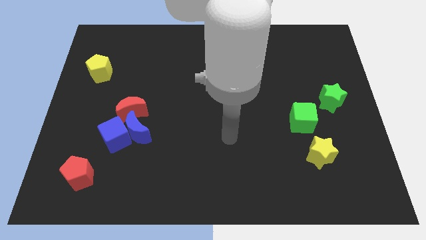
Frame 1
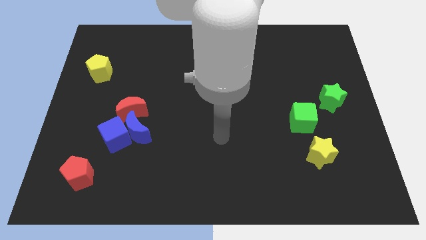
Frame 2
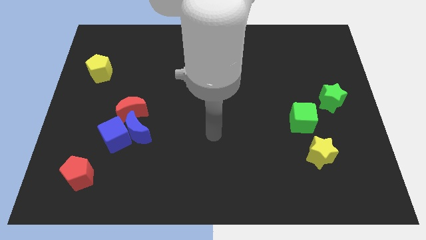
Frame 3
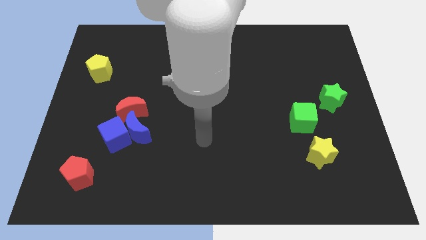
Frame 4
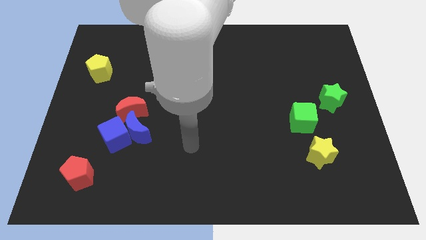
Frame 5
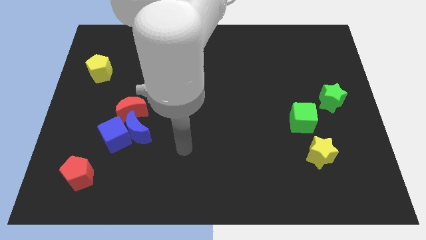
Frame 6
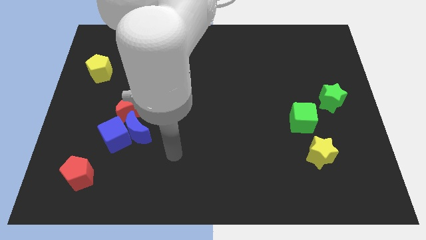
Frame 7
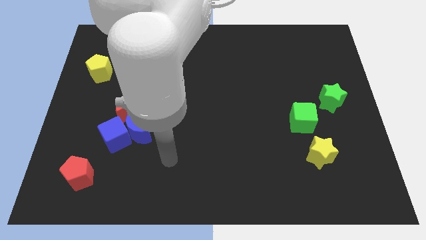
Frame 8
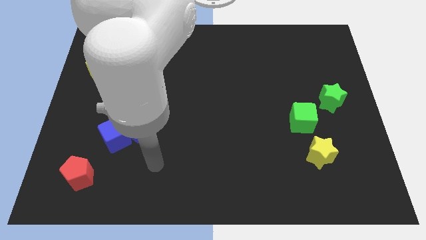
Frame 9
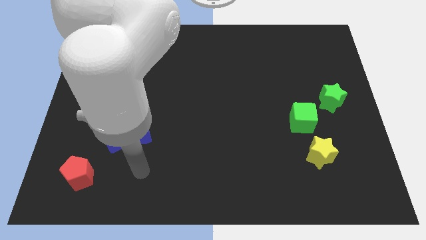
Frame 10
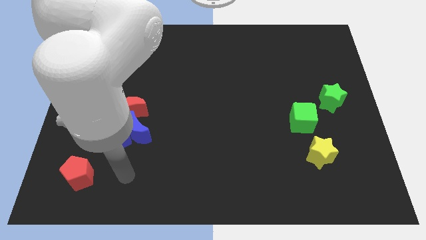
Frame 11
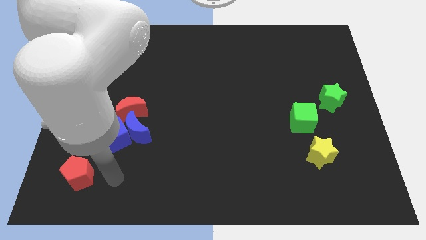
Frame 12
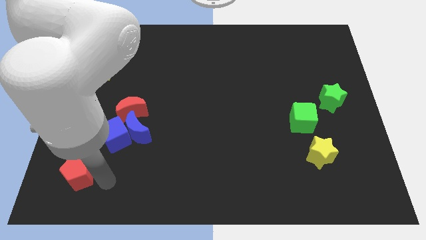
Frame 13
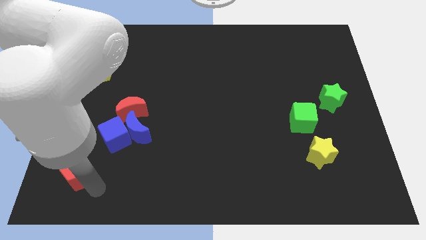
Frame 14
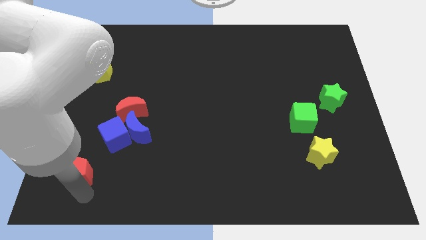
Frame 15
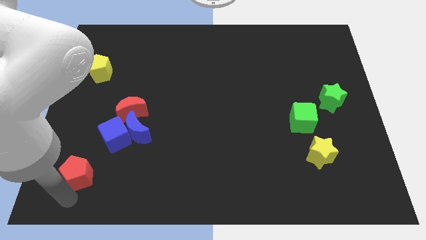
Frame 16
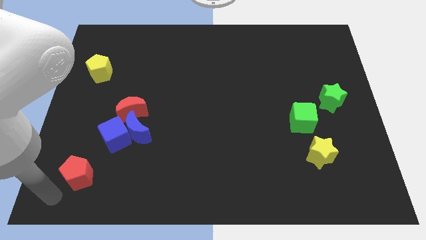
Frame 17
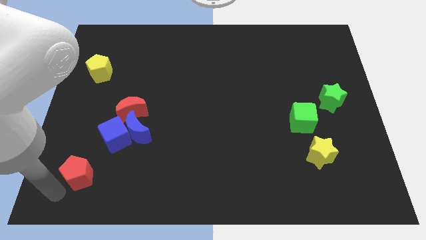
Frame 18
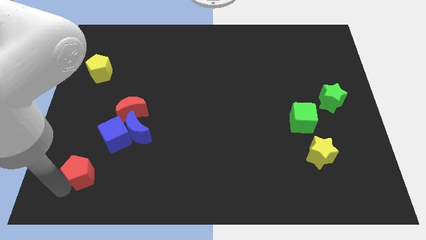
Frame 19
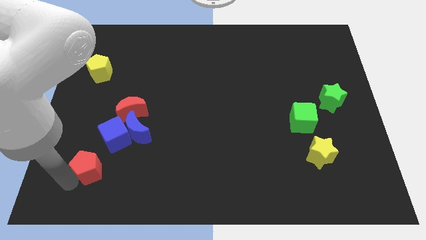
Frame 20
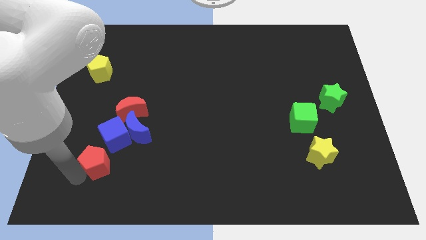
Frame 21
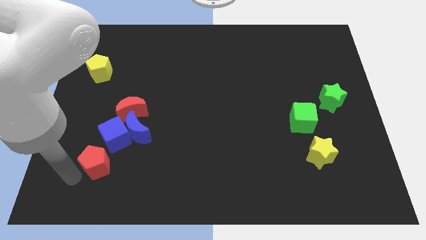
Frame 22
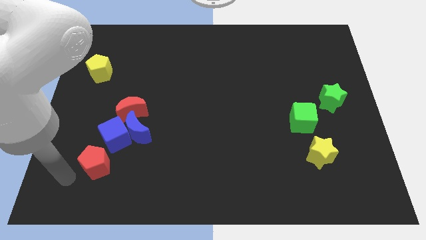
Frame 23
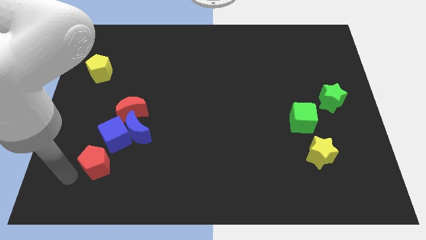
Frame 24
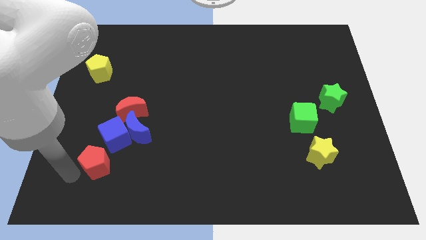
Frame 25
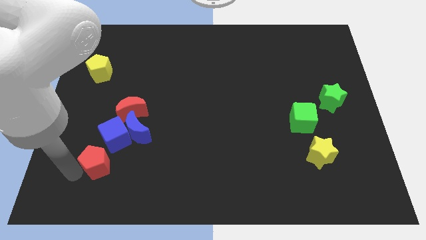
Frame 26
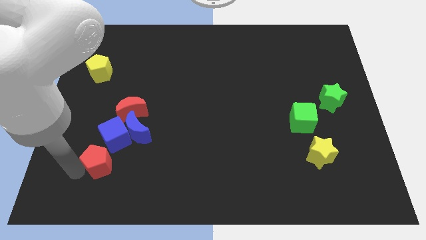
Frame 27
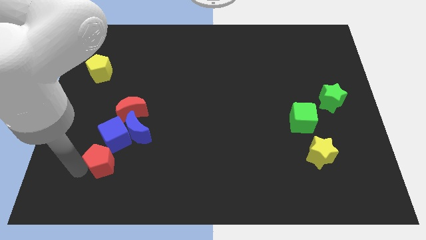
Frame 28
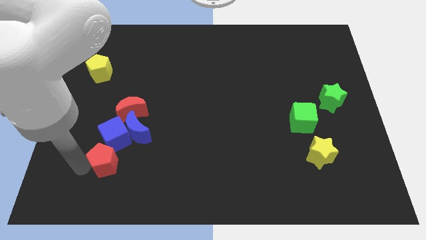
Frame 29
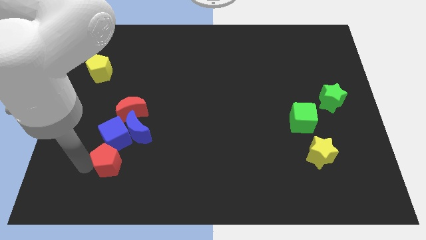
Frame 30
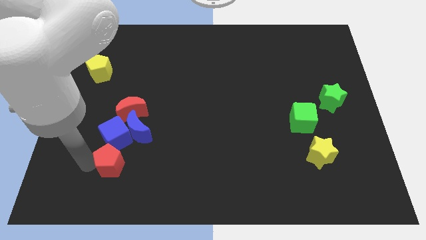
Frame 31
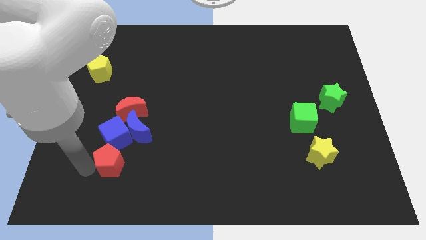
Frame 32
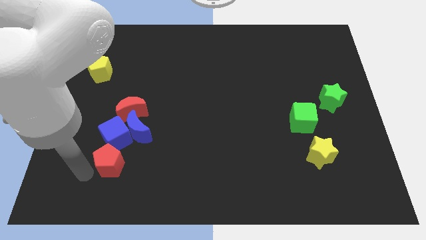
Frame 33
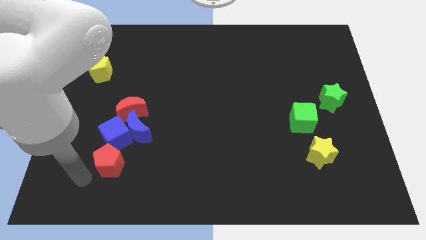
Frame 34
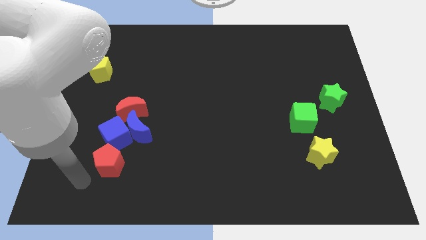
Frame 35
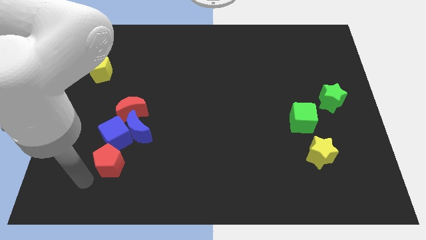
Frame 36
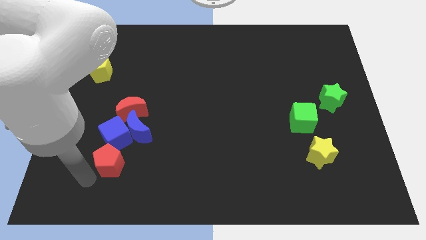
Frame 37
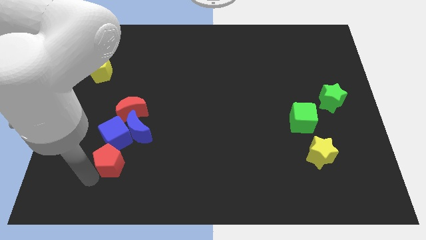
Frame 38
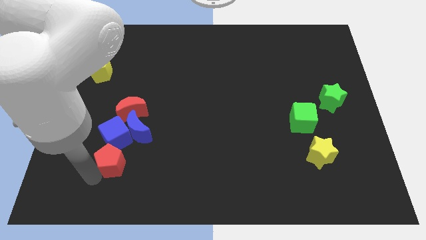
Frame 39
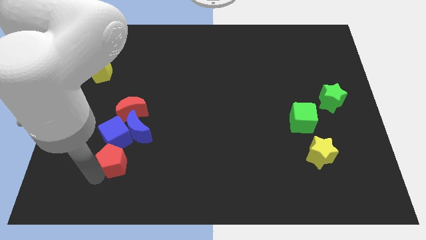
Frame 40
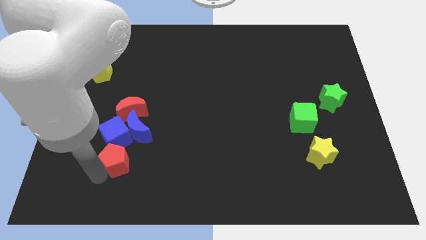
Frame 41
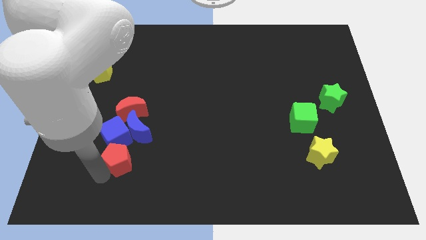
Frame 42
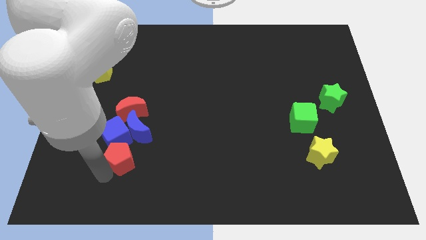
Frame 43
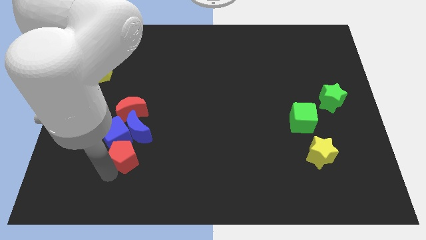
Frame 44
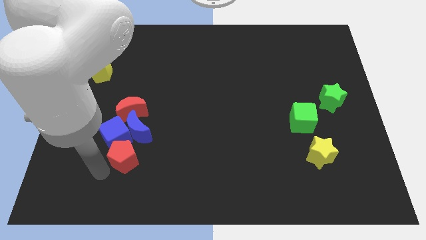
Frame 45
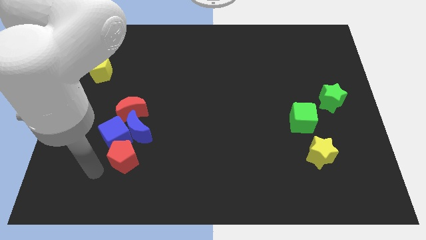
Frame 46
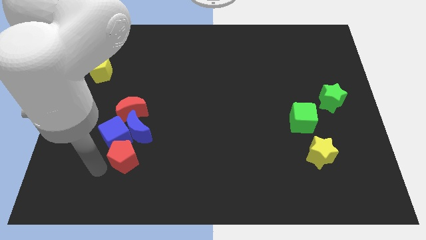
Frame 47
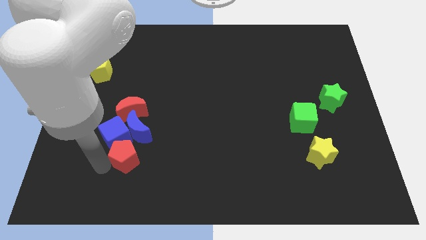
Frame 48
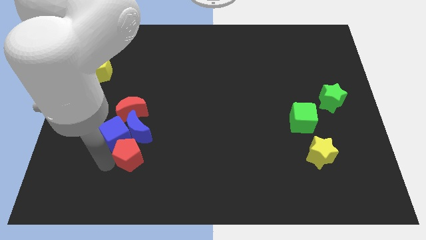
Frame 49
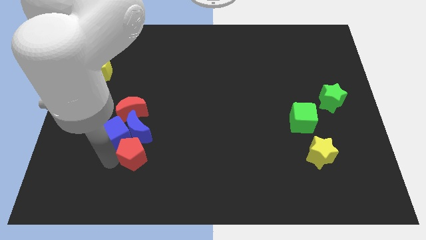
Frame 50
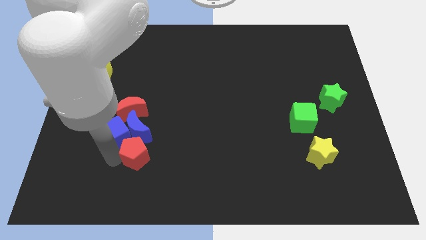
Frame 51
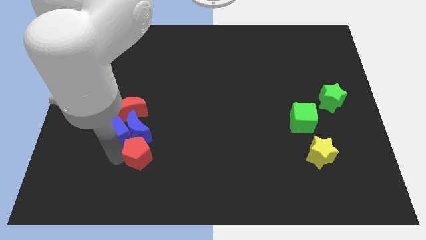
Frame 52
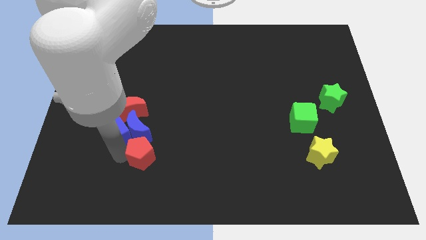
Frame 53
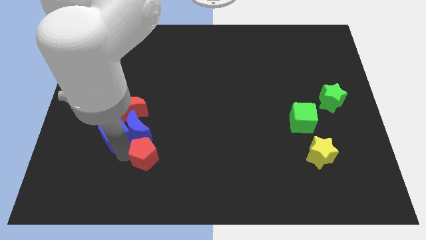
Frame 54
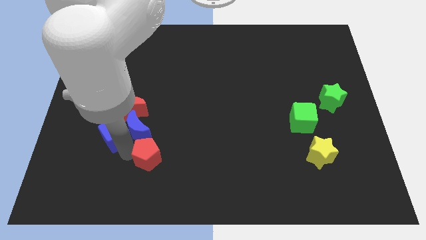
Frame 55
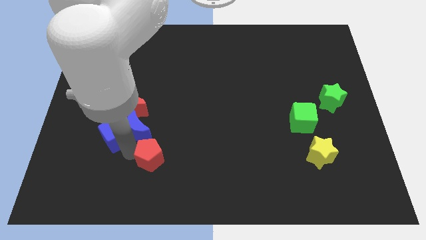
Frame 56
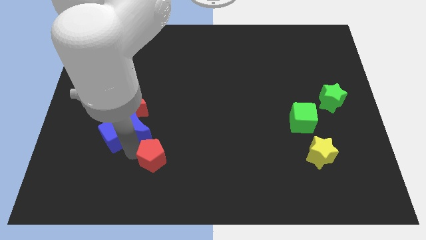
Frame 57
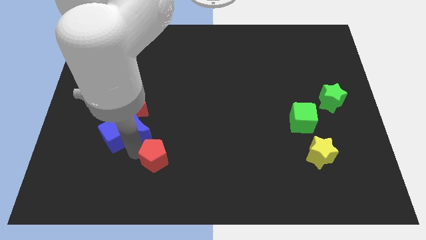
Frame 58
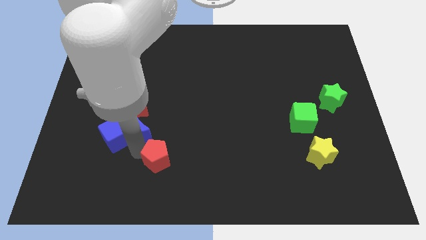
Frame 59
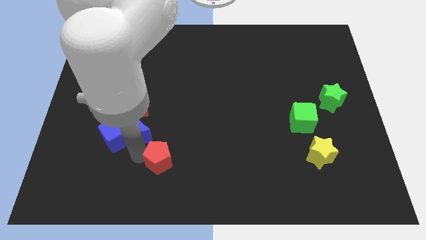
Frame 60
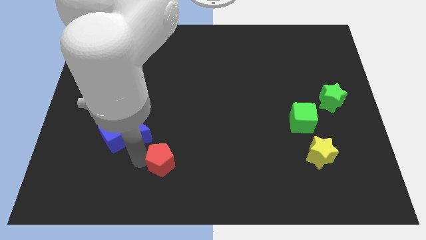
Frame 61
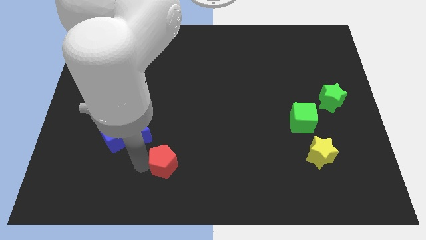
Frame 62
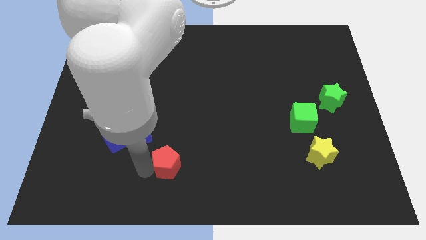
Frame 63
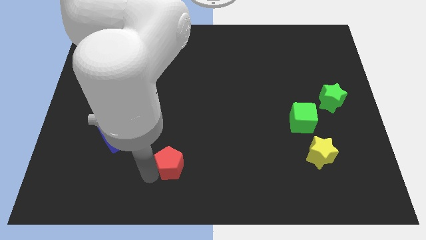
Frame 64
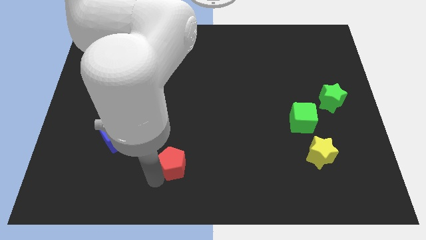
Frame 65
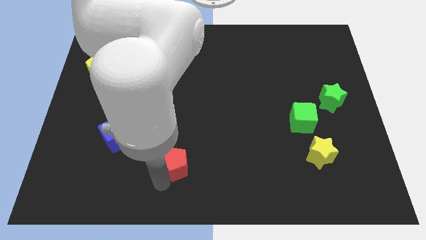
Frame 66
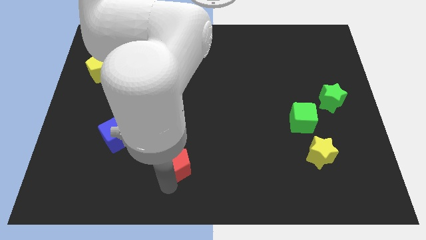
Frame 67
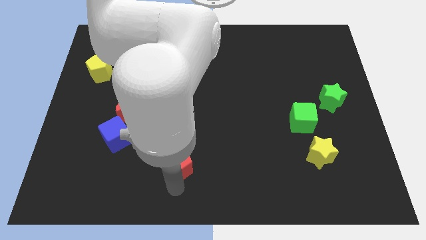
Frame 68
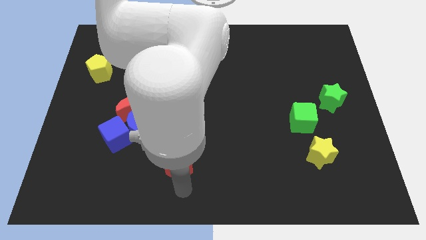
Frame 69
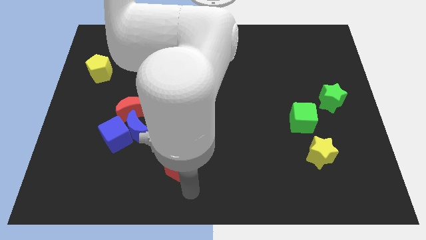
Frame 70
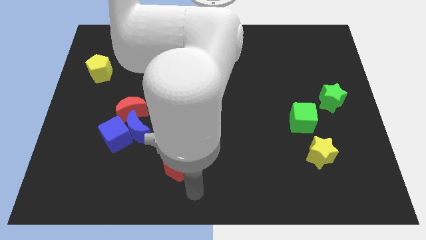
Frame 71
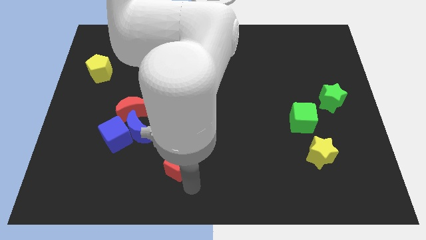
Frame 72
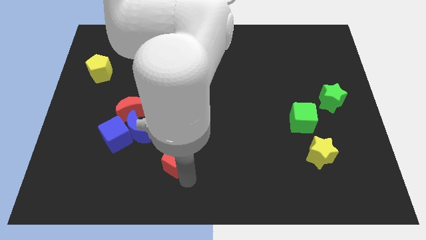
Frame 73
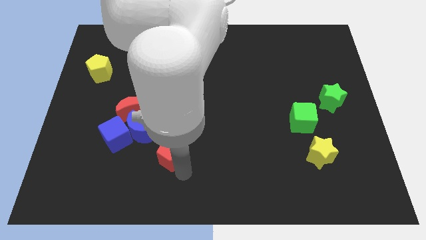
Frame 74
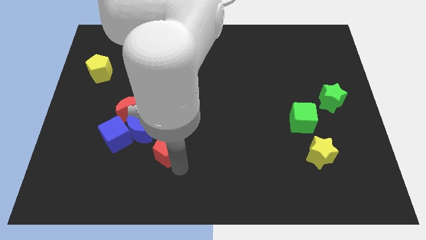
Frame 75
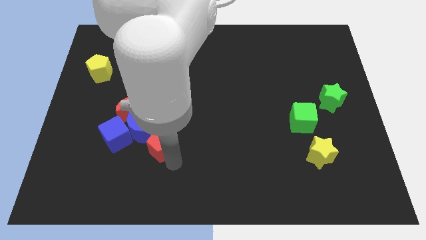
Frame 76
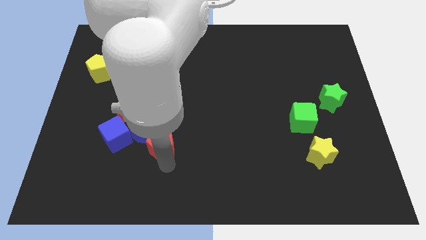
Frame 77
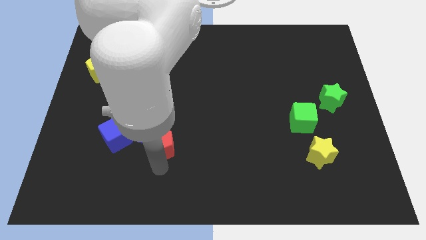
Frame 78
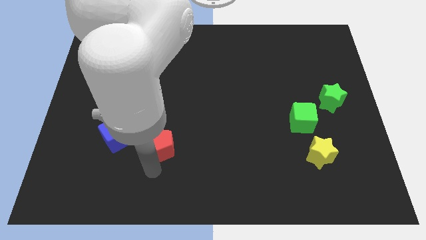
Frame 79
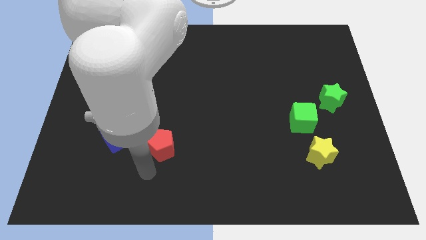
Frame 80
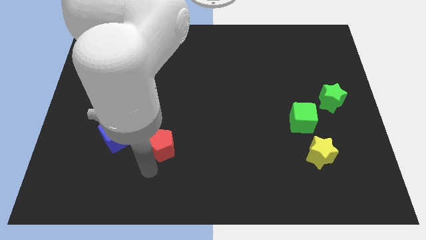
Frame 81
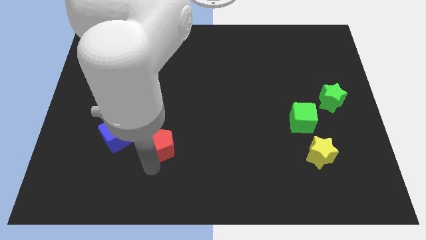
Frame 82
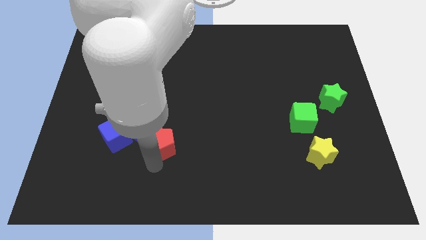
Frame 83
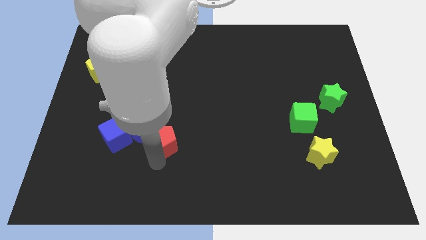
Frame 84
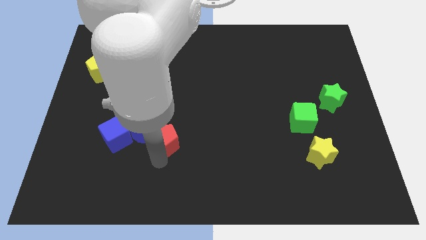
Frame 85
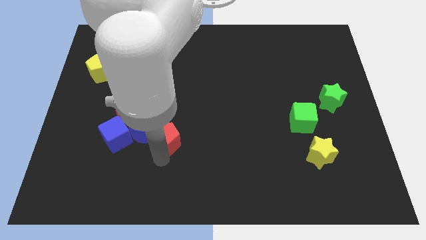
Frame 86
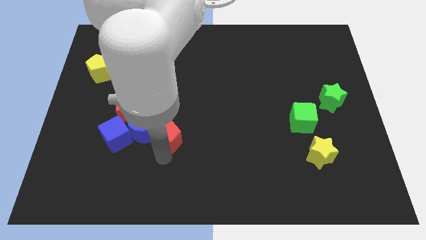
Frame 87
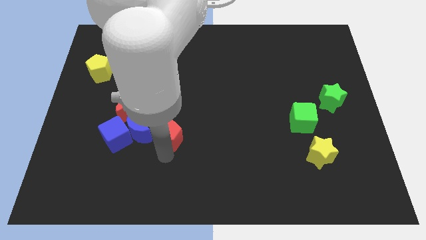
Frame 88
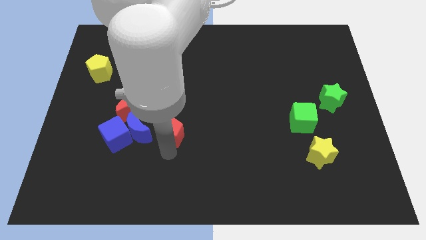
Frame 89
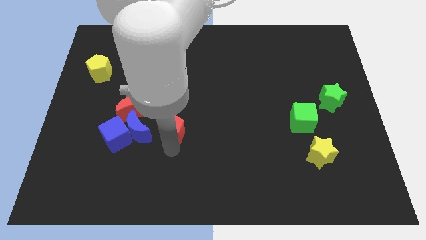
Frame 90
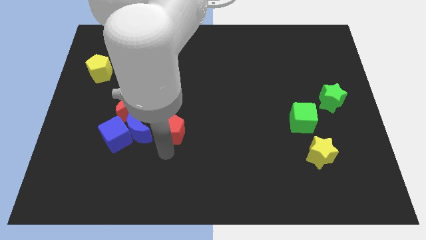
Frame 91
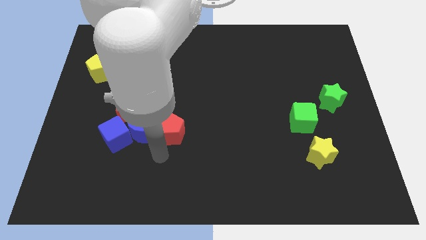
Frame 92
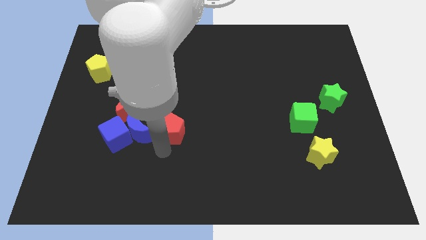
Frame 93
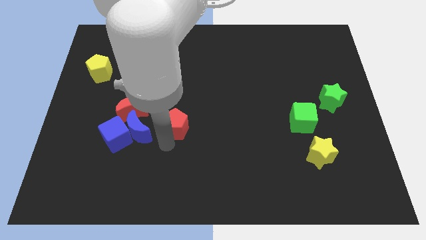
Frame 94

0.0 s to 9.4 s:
move the red pentagon up and to the right
